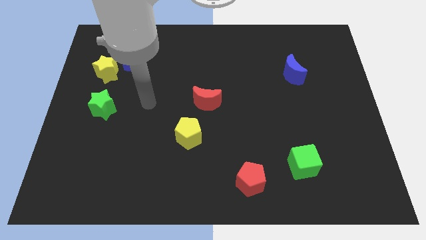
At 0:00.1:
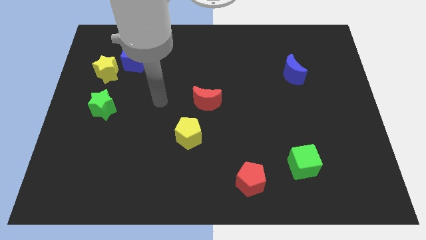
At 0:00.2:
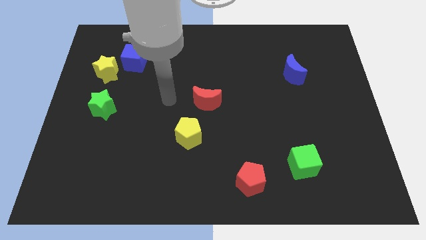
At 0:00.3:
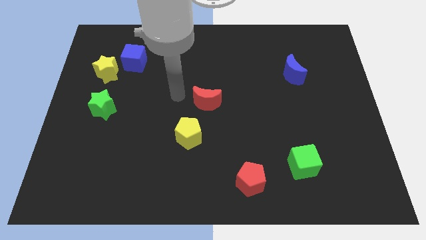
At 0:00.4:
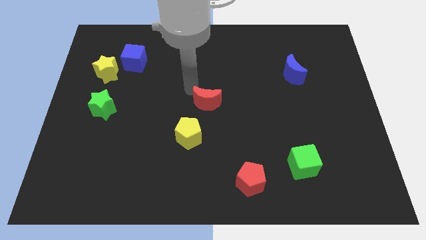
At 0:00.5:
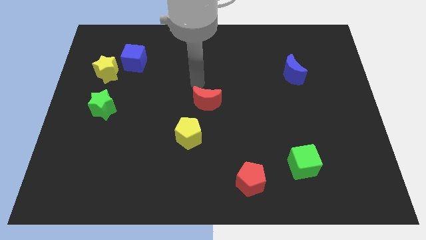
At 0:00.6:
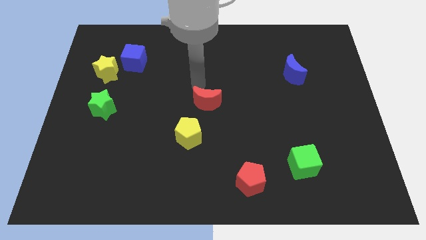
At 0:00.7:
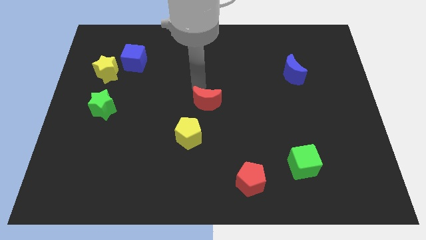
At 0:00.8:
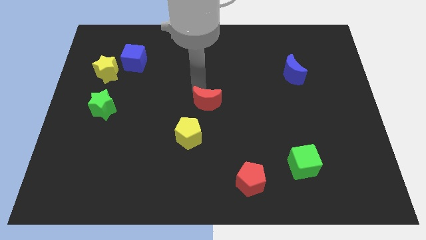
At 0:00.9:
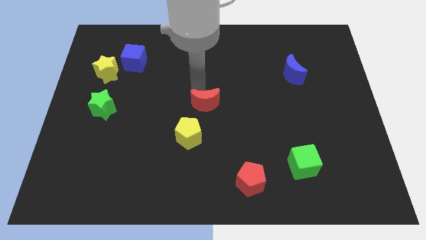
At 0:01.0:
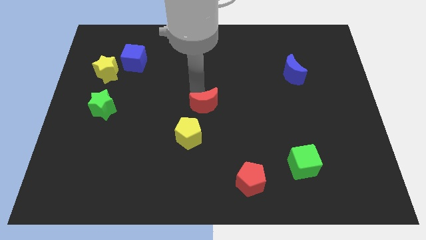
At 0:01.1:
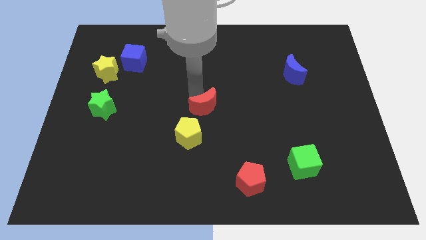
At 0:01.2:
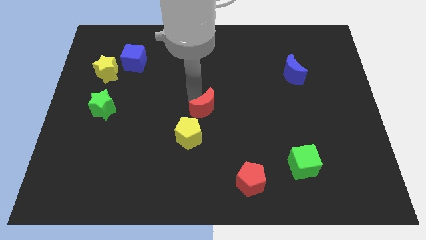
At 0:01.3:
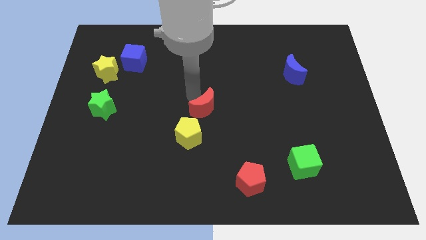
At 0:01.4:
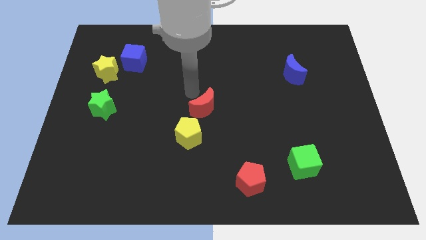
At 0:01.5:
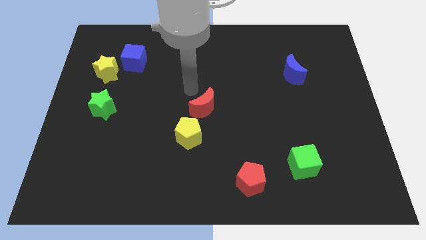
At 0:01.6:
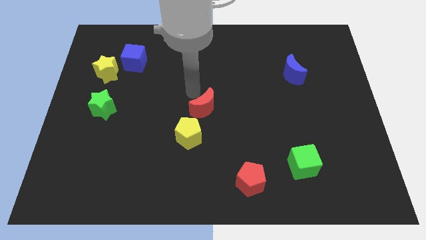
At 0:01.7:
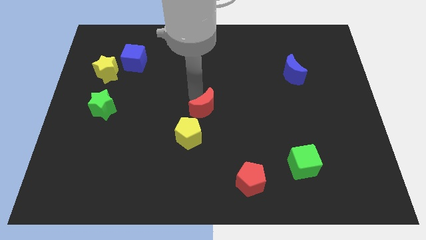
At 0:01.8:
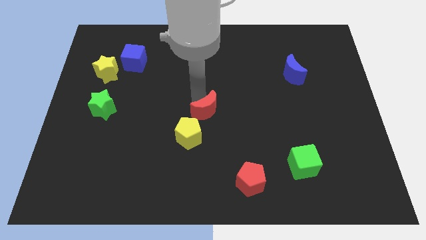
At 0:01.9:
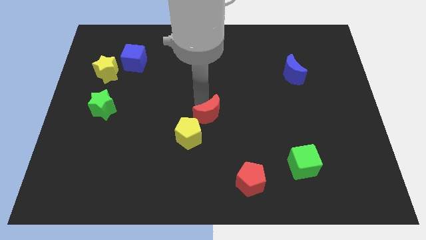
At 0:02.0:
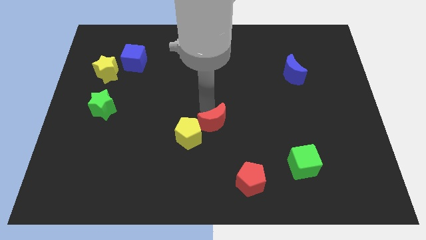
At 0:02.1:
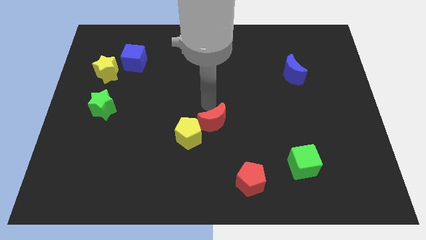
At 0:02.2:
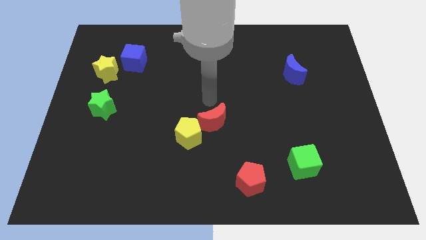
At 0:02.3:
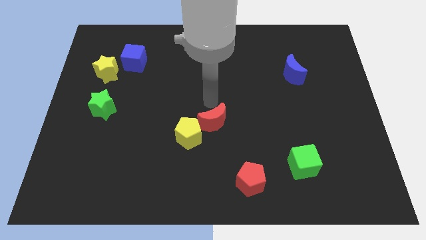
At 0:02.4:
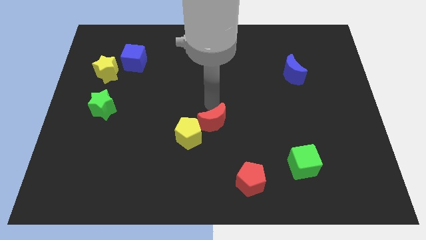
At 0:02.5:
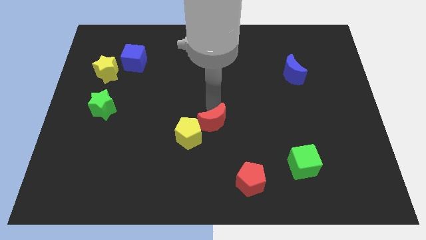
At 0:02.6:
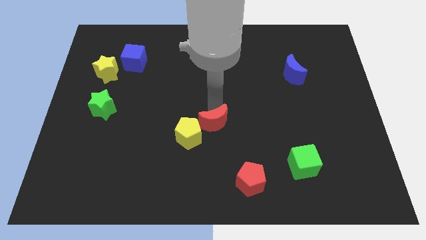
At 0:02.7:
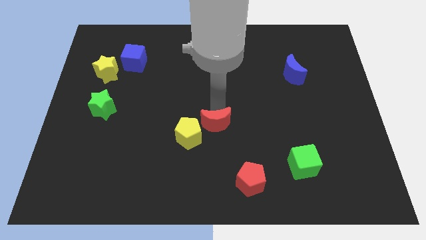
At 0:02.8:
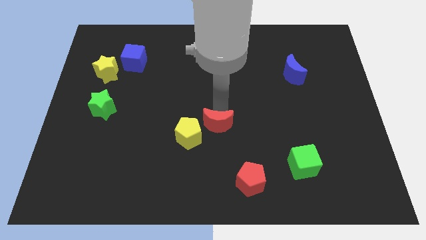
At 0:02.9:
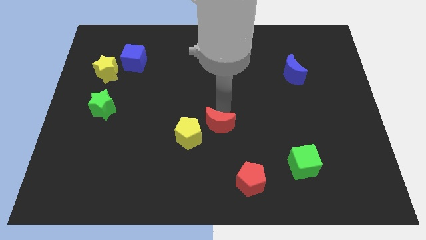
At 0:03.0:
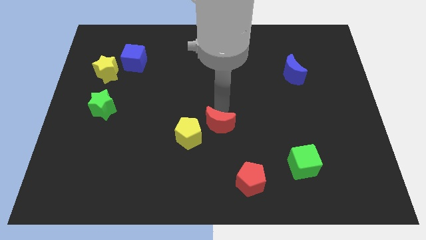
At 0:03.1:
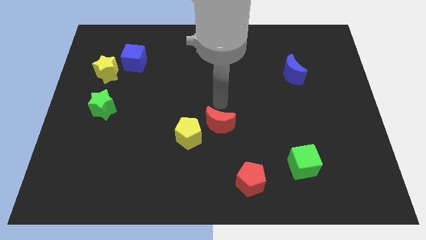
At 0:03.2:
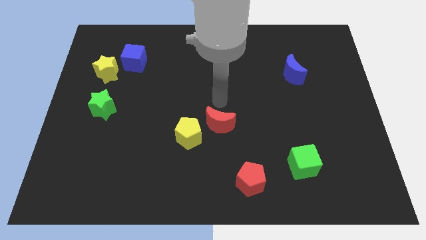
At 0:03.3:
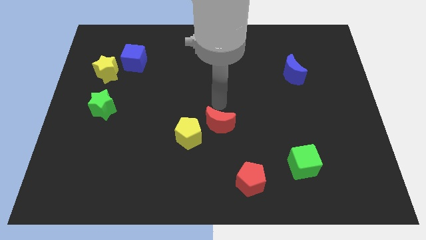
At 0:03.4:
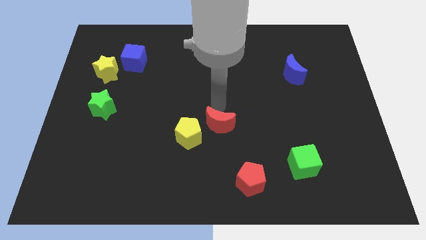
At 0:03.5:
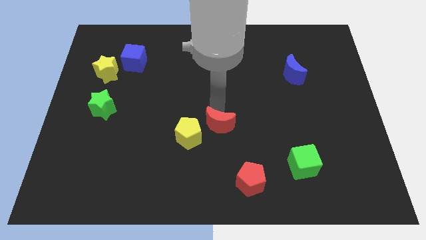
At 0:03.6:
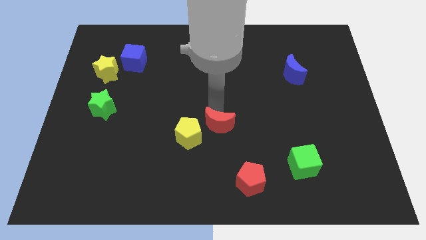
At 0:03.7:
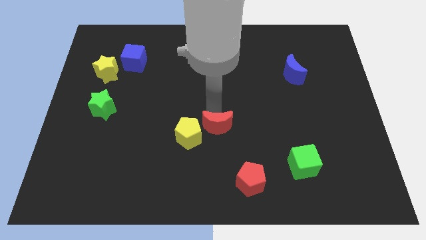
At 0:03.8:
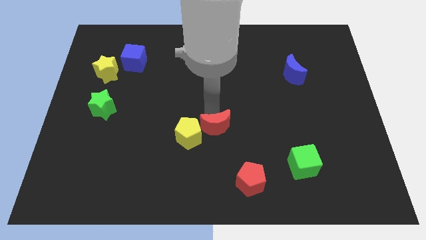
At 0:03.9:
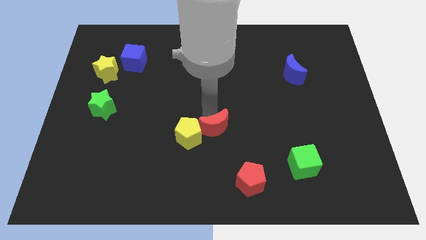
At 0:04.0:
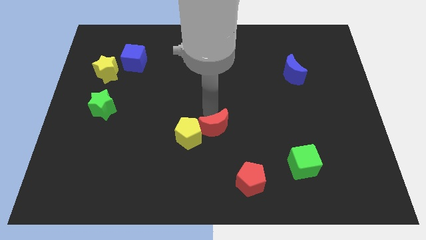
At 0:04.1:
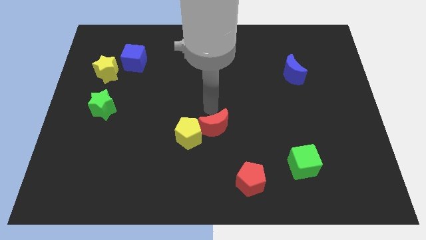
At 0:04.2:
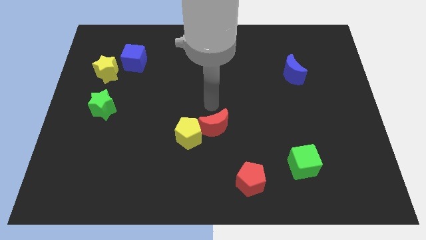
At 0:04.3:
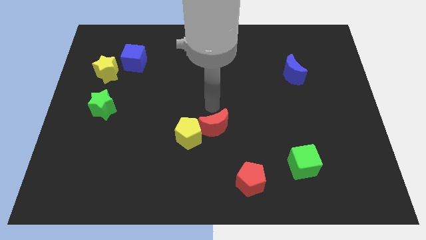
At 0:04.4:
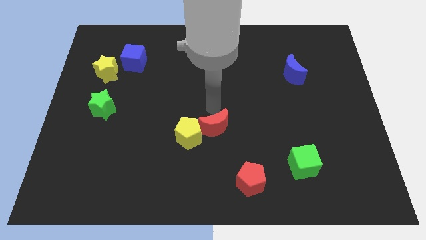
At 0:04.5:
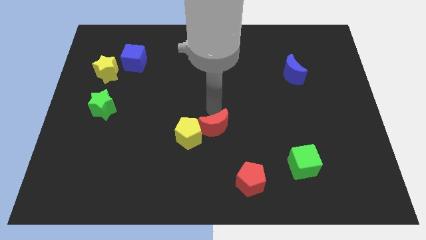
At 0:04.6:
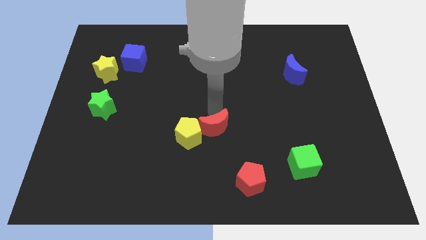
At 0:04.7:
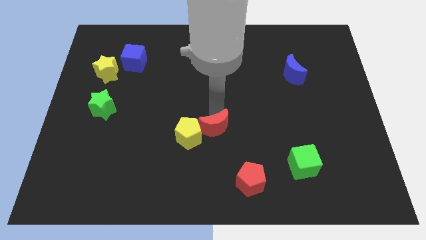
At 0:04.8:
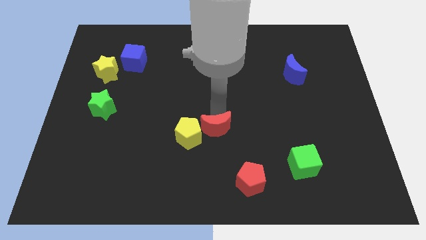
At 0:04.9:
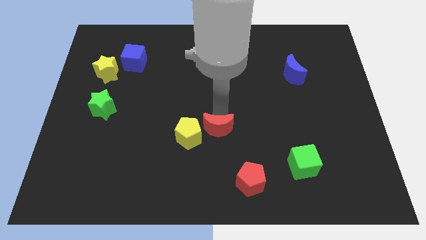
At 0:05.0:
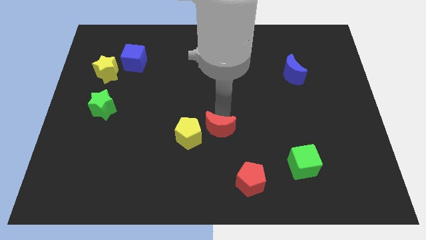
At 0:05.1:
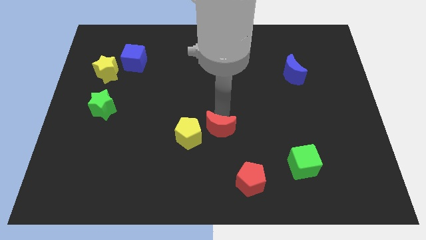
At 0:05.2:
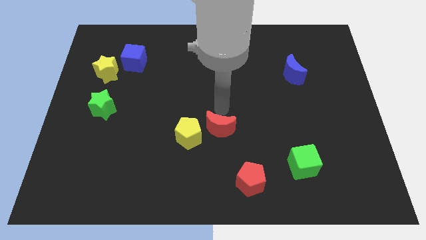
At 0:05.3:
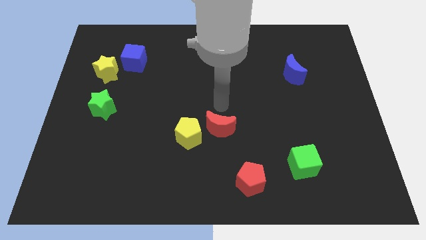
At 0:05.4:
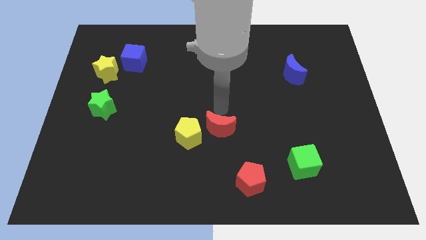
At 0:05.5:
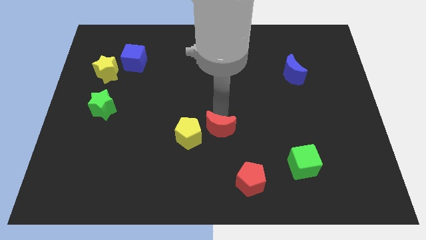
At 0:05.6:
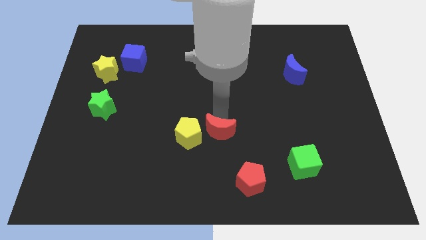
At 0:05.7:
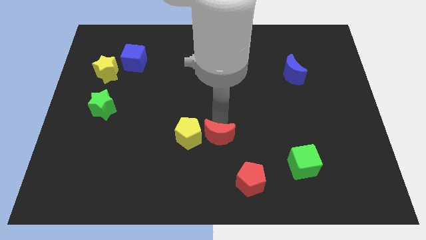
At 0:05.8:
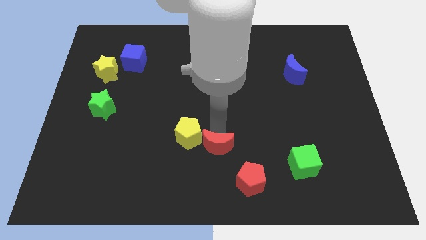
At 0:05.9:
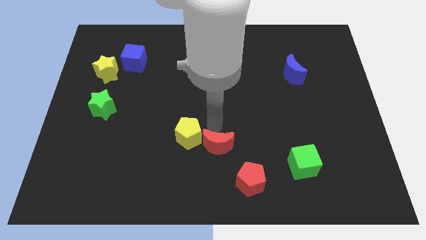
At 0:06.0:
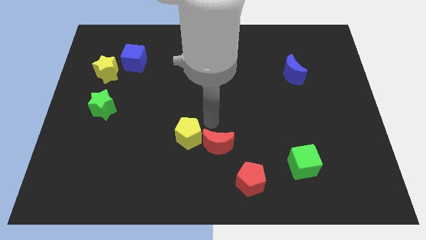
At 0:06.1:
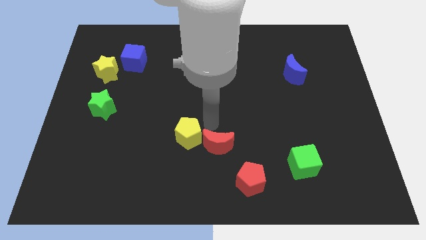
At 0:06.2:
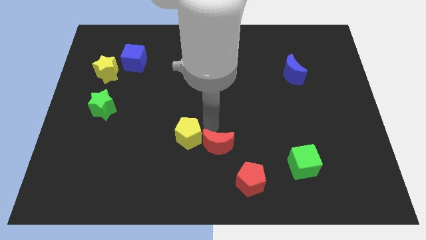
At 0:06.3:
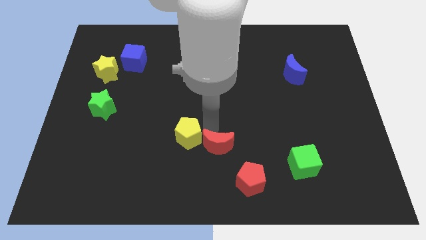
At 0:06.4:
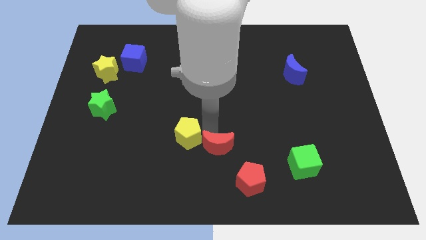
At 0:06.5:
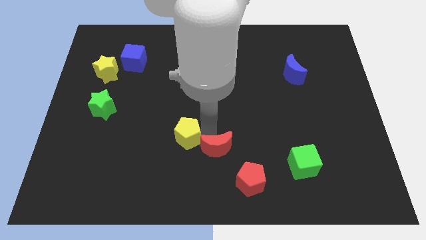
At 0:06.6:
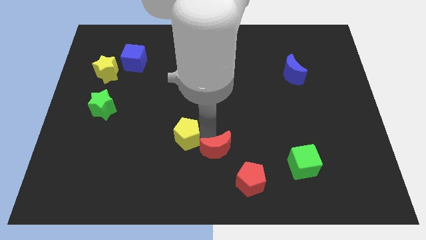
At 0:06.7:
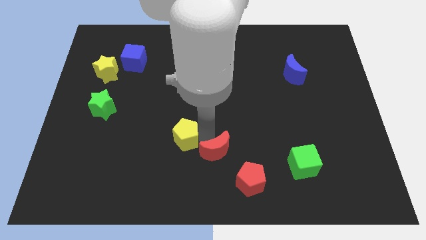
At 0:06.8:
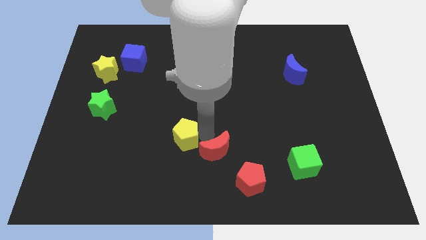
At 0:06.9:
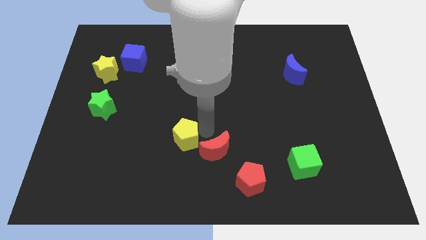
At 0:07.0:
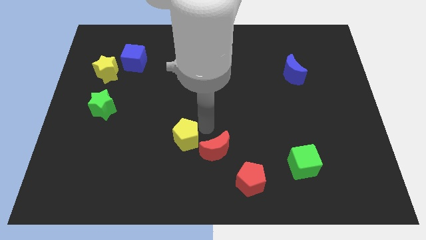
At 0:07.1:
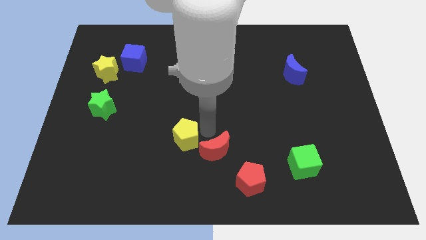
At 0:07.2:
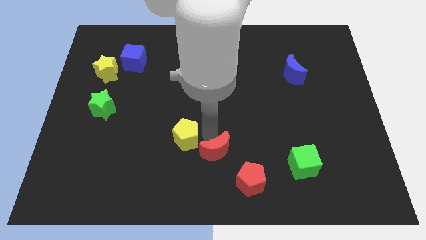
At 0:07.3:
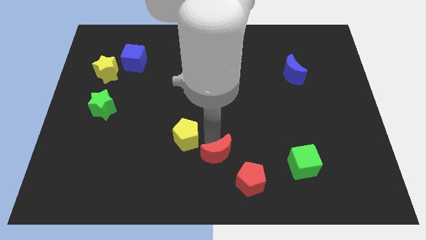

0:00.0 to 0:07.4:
put the red moon to the bottom side
